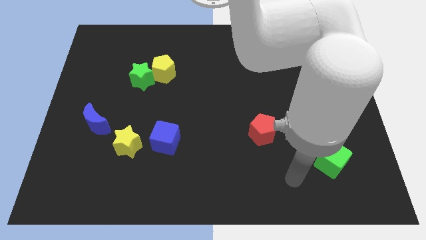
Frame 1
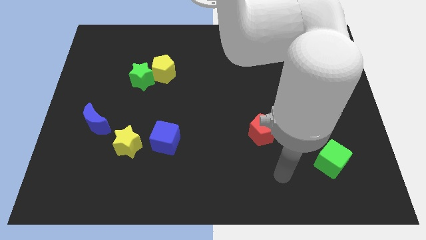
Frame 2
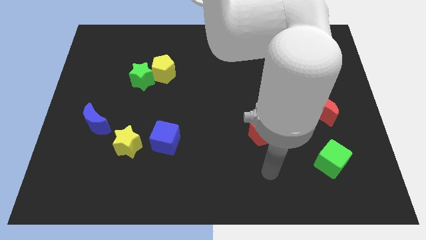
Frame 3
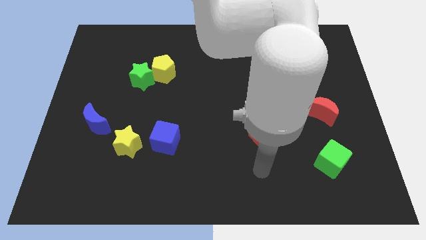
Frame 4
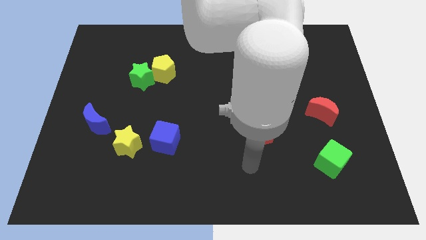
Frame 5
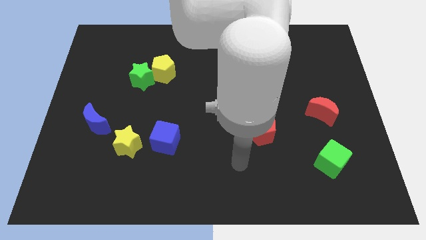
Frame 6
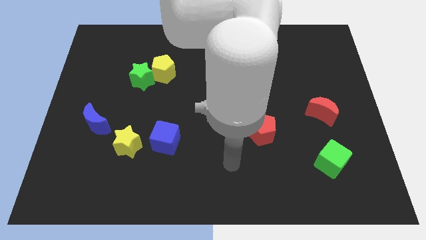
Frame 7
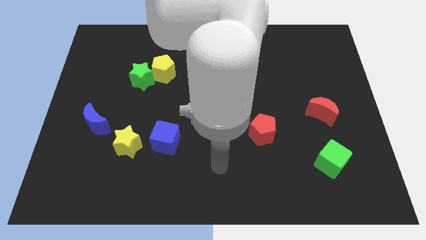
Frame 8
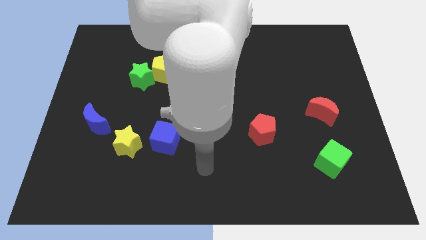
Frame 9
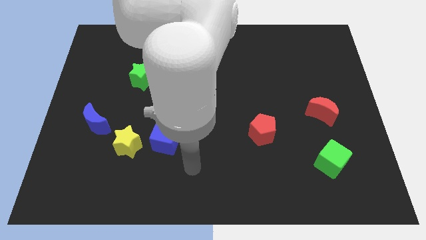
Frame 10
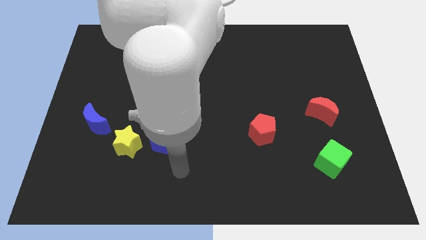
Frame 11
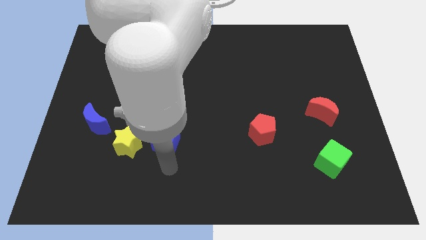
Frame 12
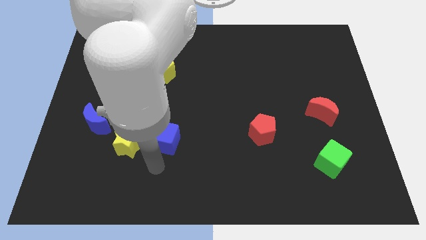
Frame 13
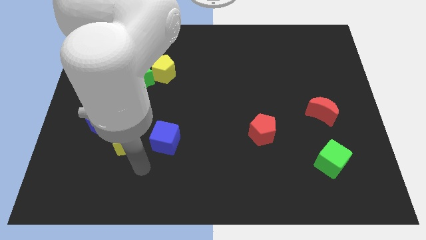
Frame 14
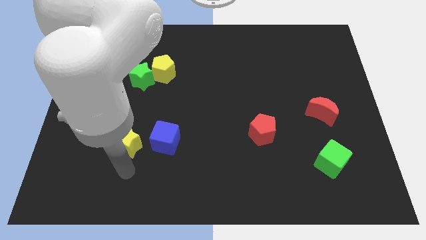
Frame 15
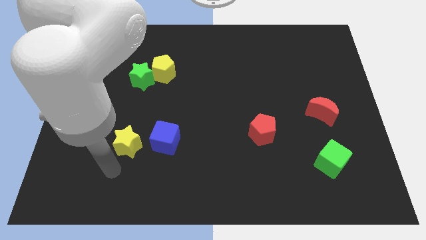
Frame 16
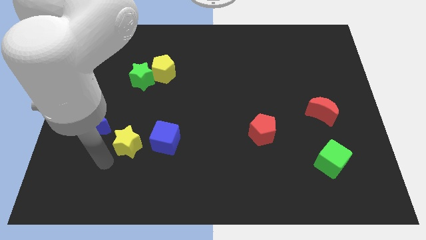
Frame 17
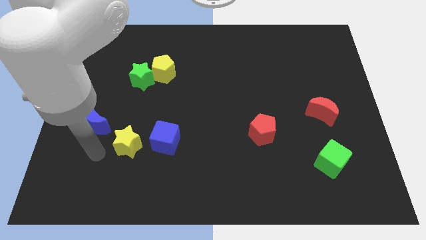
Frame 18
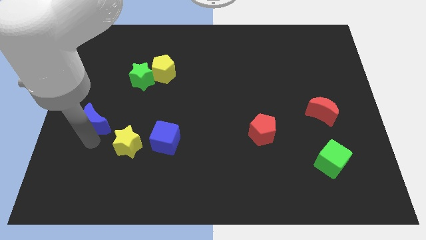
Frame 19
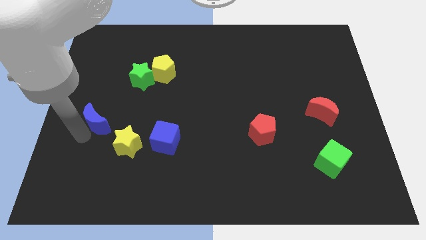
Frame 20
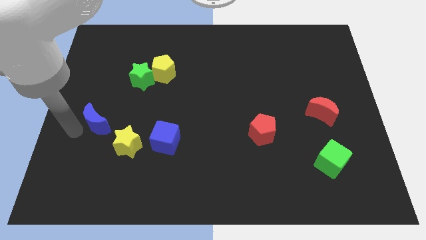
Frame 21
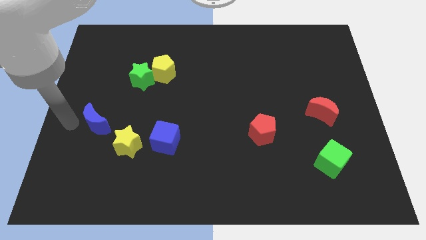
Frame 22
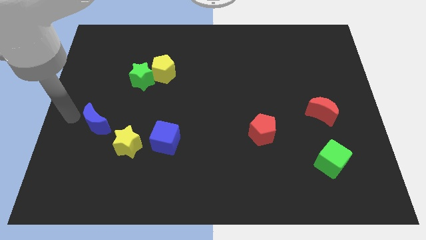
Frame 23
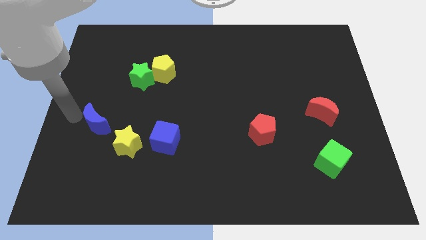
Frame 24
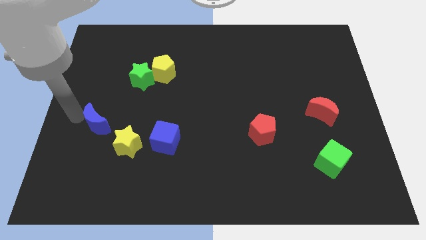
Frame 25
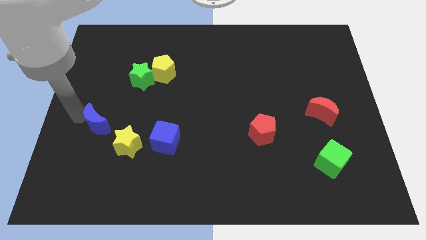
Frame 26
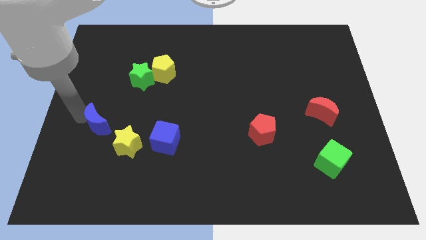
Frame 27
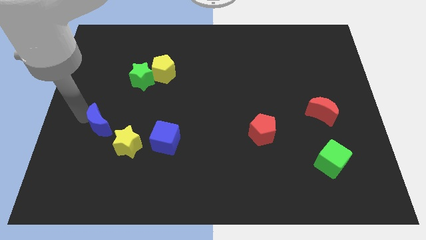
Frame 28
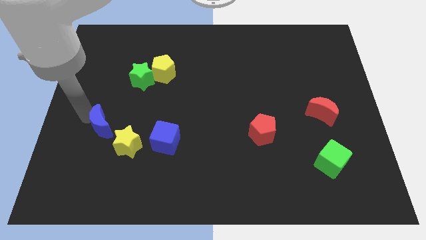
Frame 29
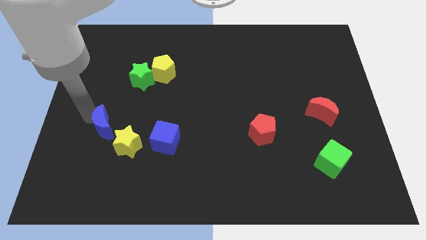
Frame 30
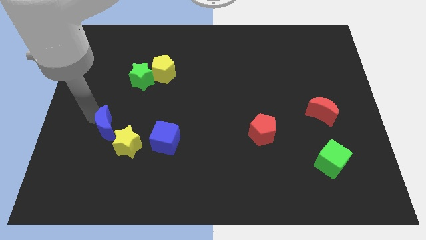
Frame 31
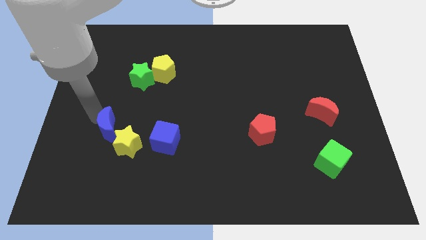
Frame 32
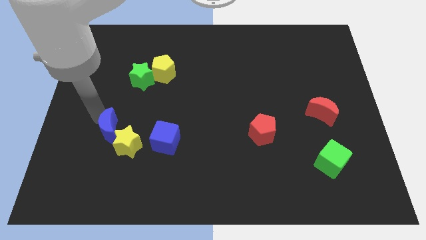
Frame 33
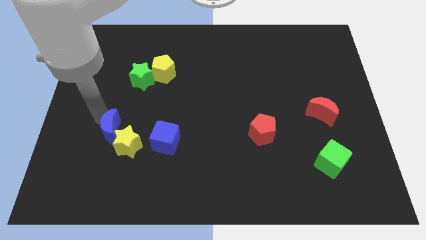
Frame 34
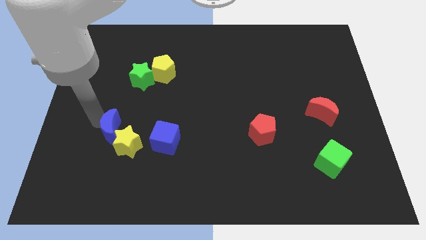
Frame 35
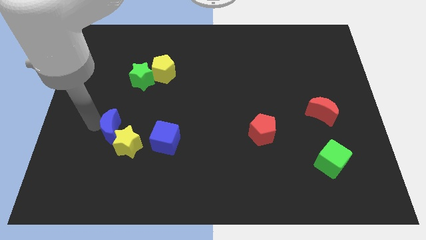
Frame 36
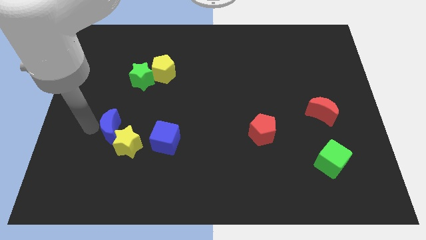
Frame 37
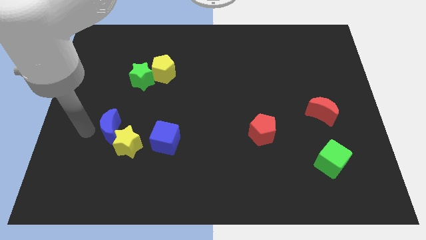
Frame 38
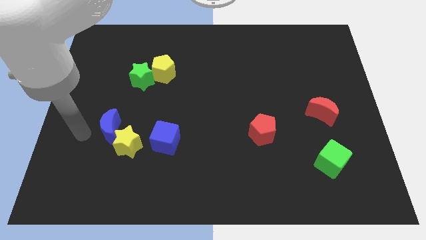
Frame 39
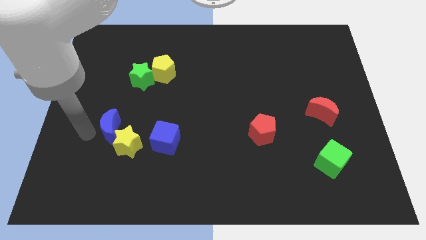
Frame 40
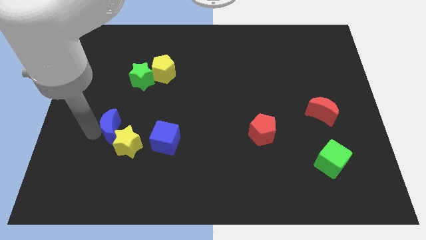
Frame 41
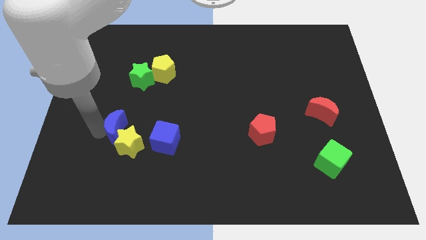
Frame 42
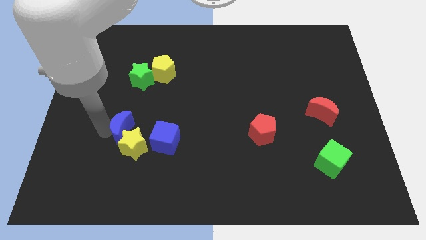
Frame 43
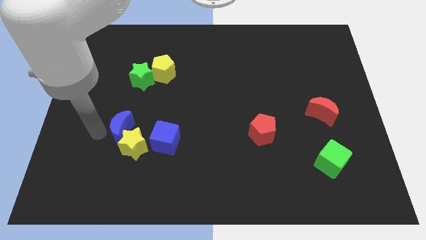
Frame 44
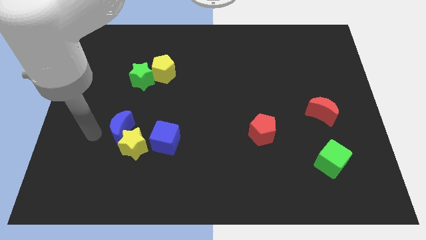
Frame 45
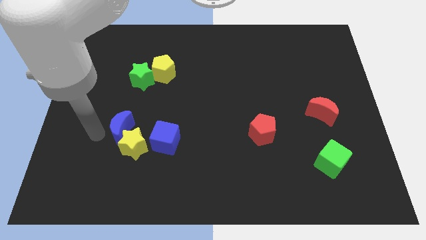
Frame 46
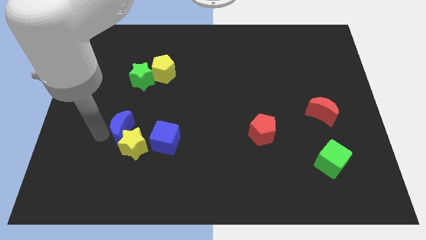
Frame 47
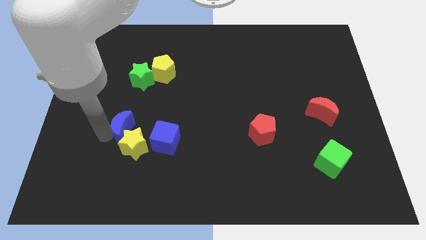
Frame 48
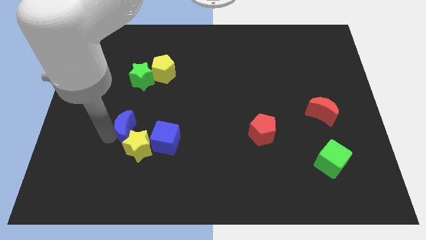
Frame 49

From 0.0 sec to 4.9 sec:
push the blue moon a little right

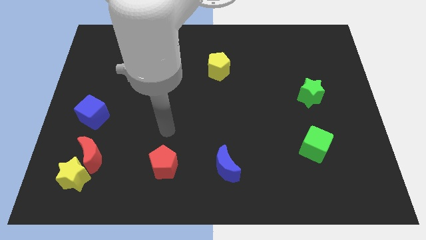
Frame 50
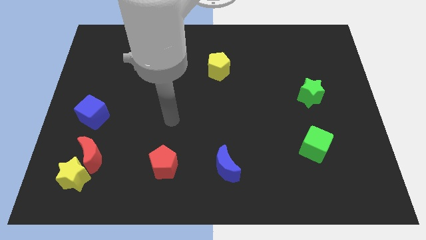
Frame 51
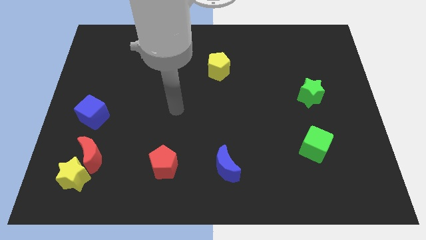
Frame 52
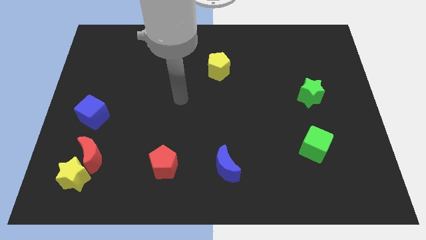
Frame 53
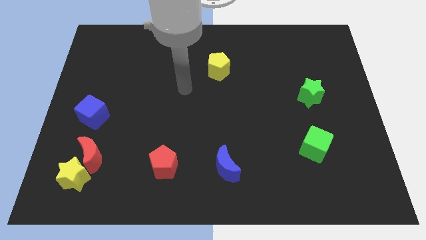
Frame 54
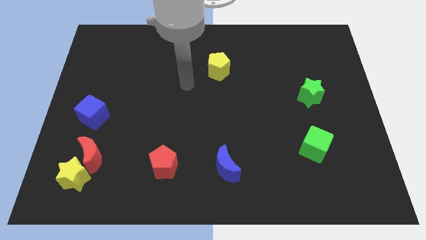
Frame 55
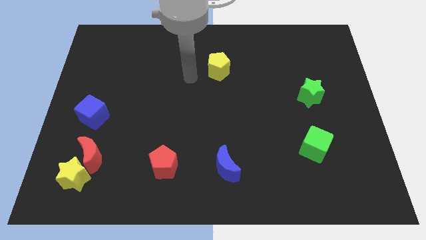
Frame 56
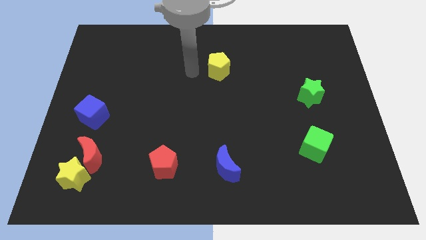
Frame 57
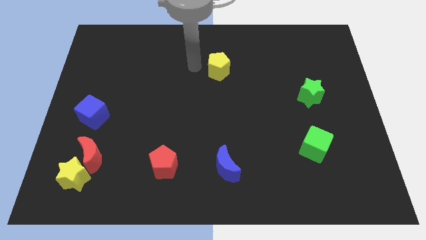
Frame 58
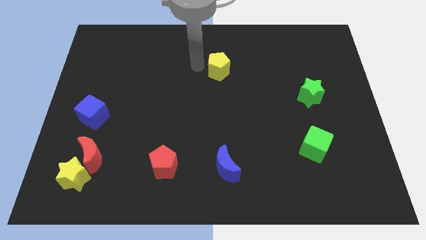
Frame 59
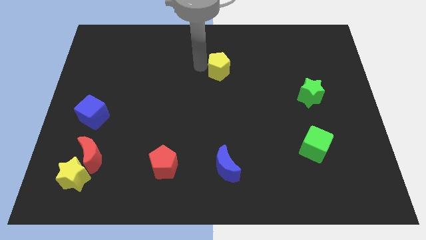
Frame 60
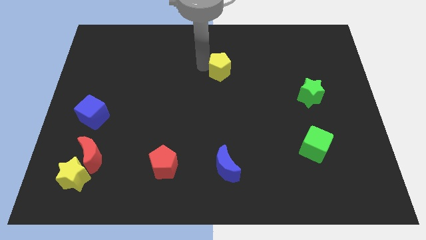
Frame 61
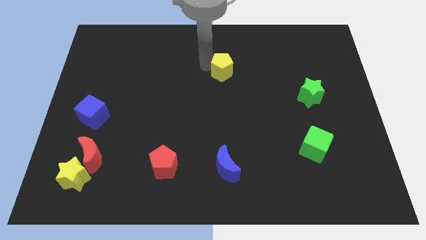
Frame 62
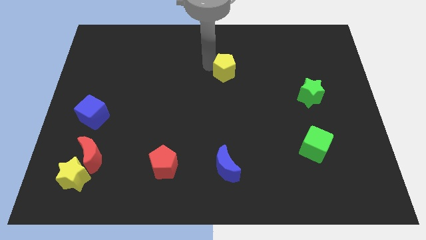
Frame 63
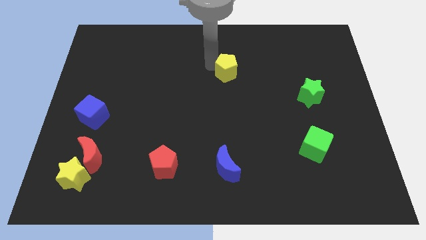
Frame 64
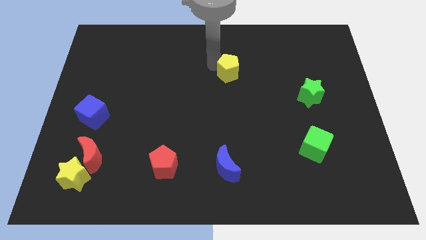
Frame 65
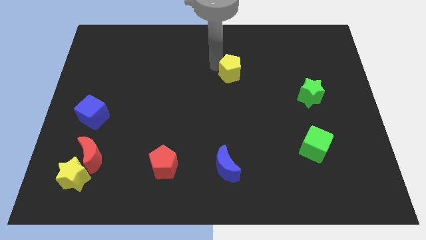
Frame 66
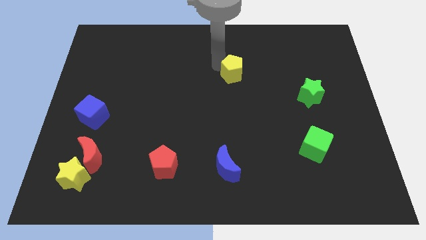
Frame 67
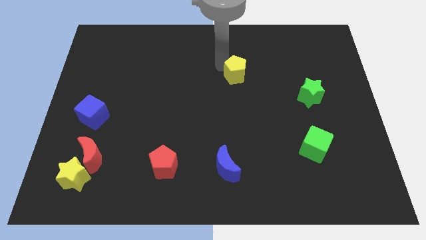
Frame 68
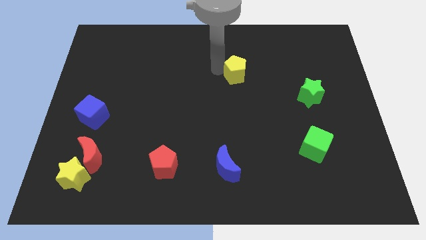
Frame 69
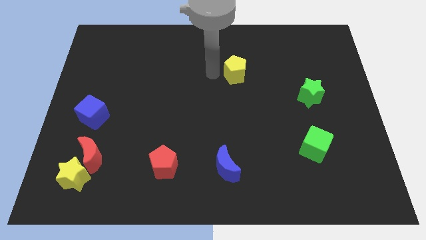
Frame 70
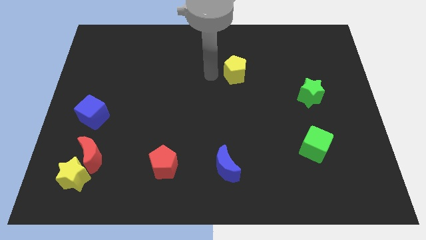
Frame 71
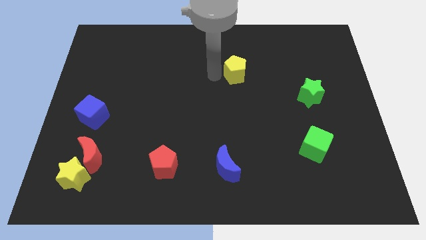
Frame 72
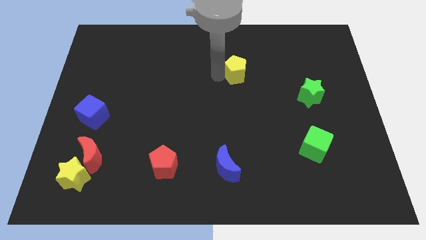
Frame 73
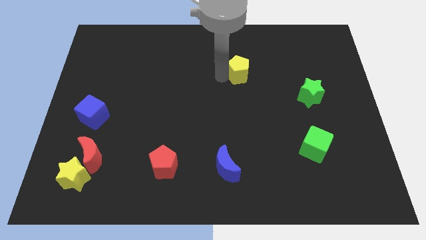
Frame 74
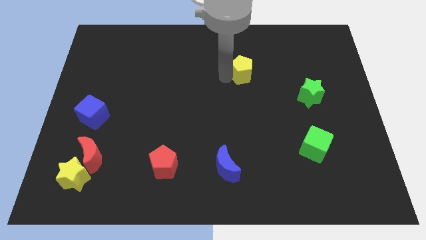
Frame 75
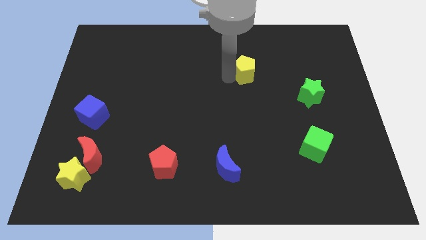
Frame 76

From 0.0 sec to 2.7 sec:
slide the yellow pentagon to the right a little
